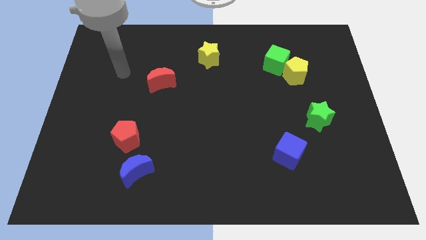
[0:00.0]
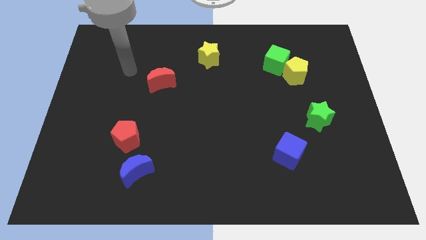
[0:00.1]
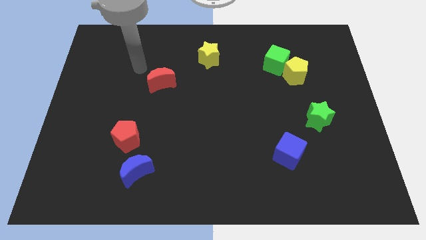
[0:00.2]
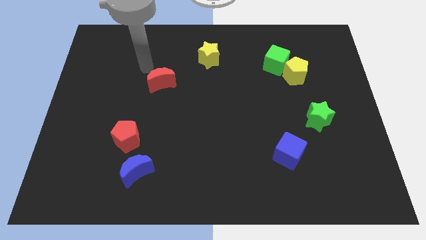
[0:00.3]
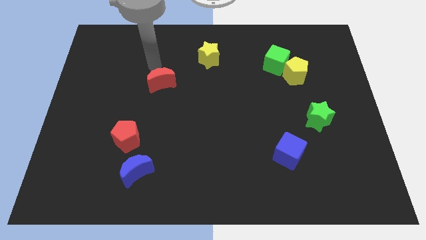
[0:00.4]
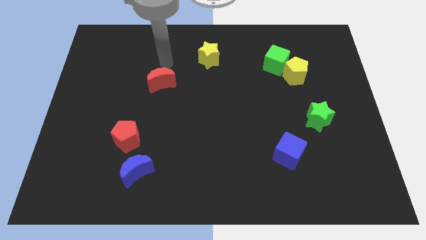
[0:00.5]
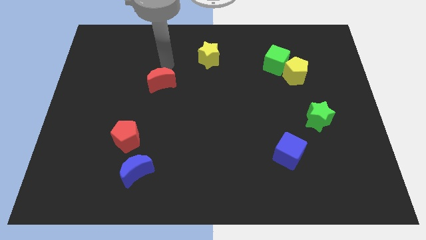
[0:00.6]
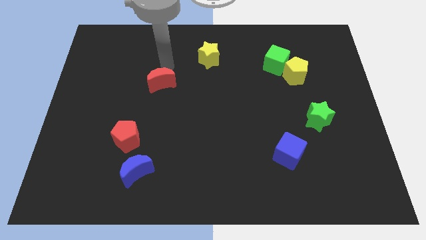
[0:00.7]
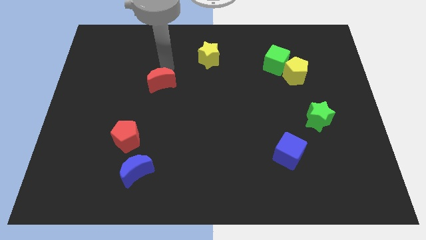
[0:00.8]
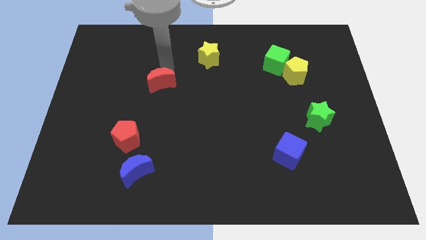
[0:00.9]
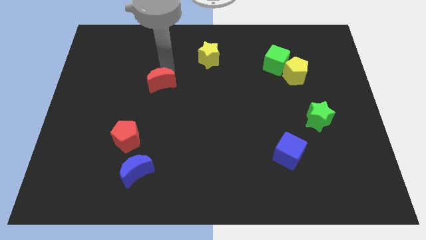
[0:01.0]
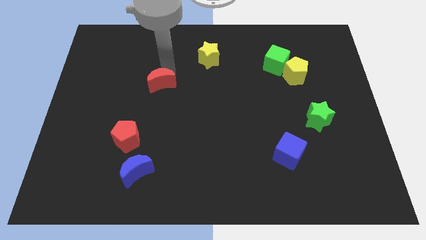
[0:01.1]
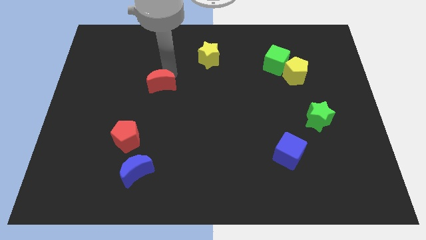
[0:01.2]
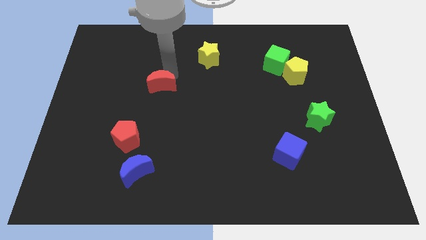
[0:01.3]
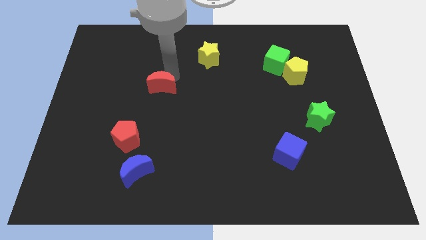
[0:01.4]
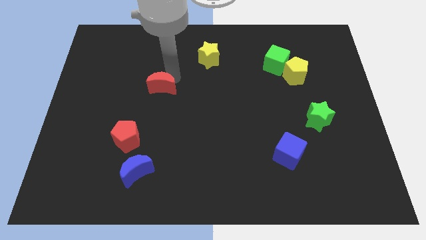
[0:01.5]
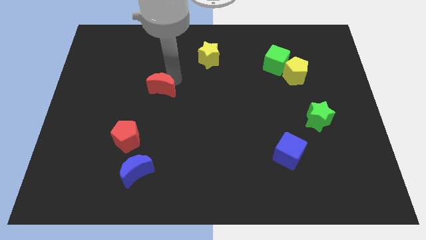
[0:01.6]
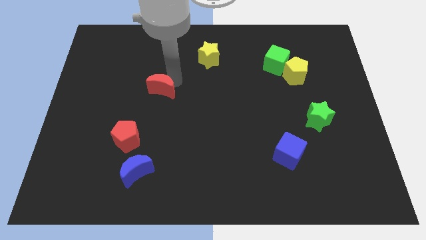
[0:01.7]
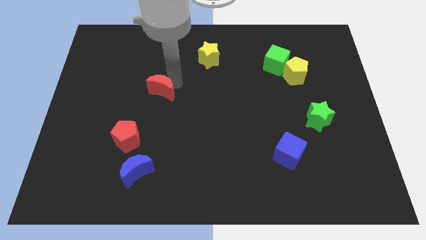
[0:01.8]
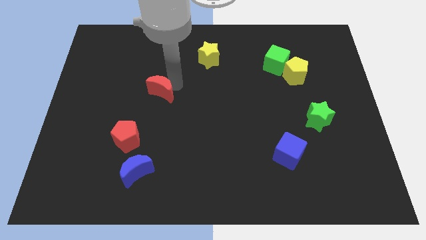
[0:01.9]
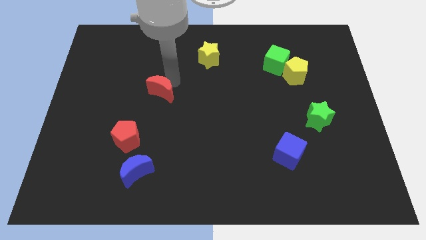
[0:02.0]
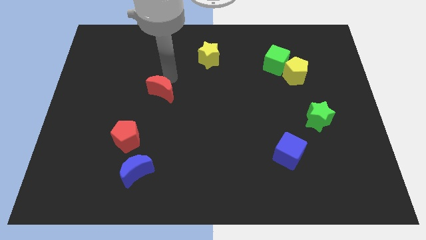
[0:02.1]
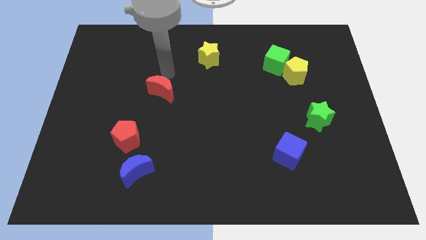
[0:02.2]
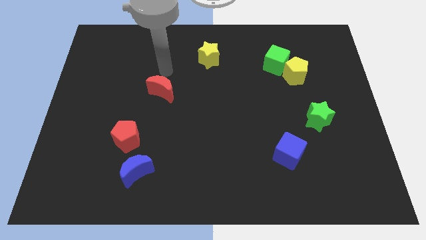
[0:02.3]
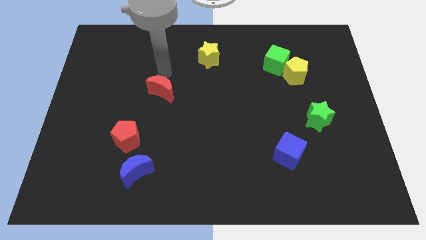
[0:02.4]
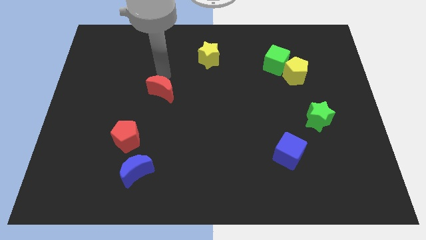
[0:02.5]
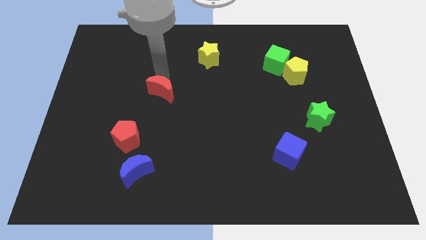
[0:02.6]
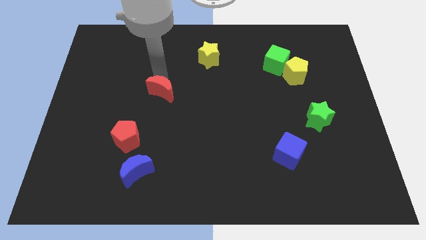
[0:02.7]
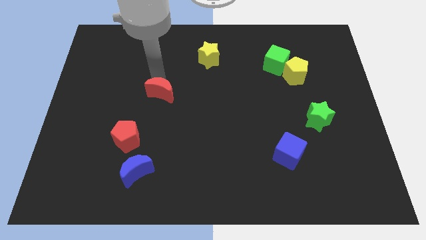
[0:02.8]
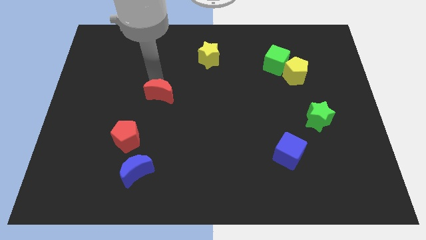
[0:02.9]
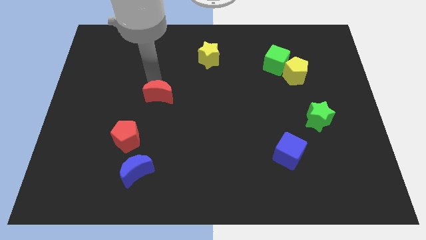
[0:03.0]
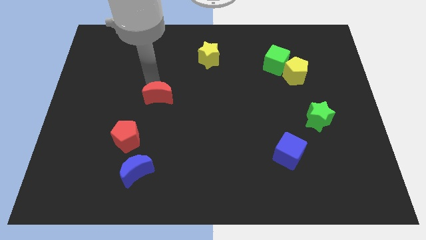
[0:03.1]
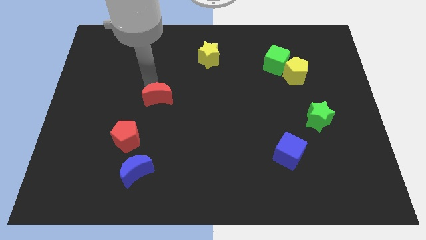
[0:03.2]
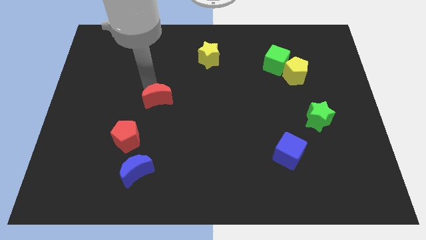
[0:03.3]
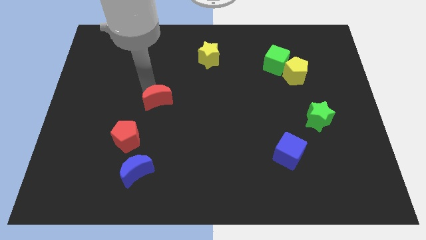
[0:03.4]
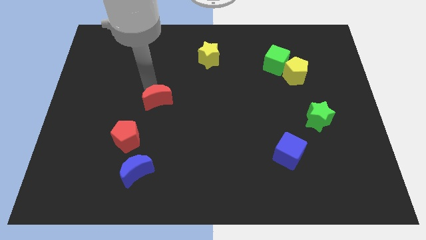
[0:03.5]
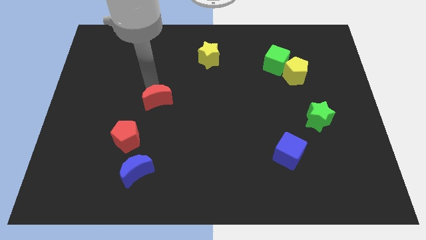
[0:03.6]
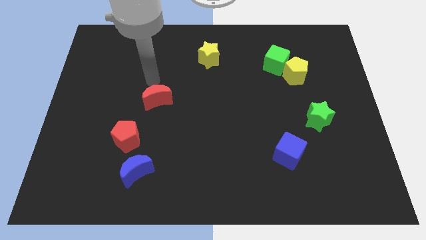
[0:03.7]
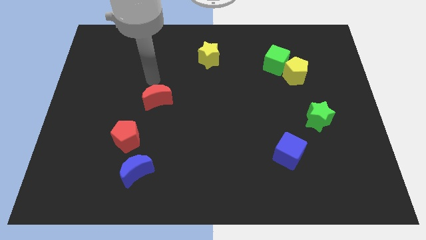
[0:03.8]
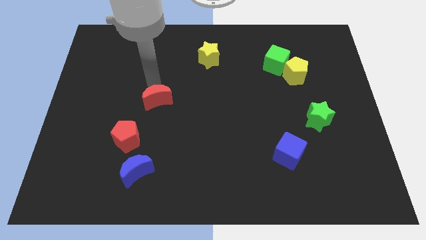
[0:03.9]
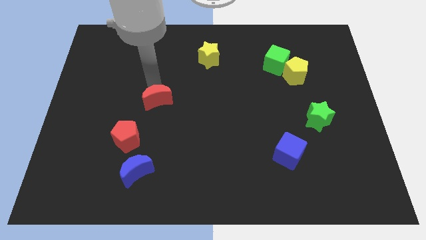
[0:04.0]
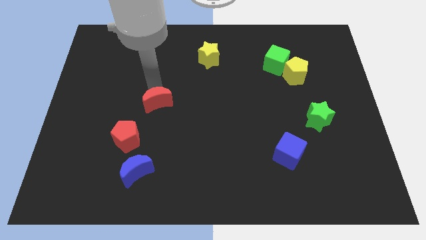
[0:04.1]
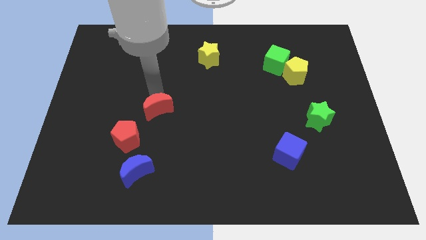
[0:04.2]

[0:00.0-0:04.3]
slide the red moon a little downwards

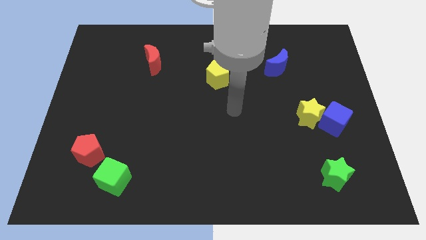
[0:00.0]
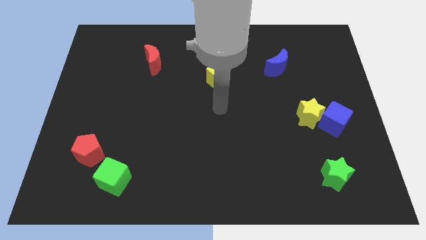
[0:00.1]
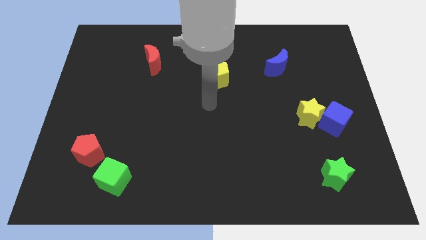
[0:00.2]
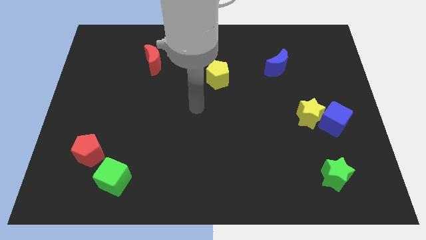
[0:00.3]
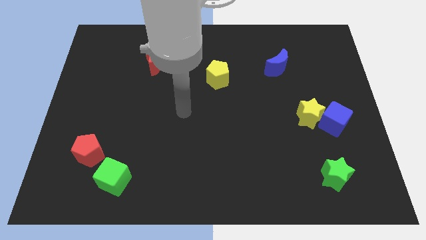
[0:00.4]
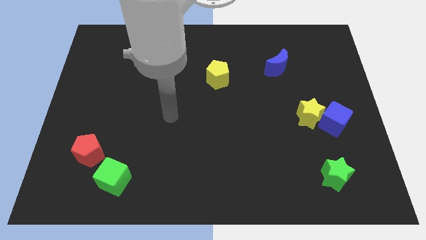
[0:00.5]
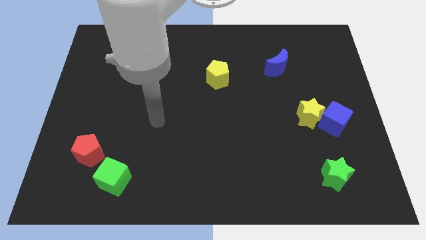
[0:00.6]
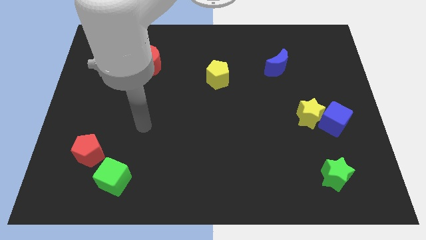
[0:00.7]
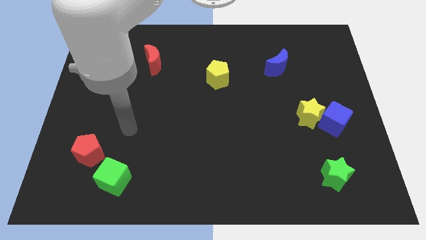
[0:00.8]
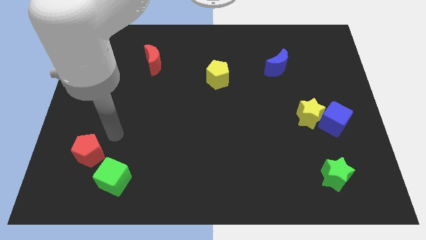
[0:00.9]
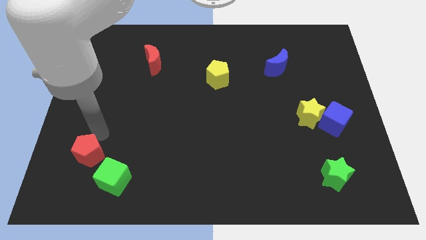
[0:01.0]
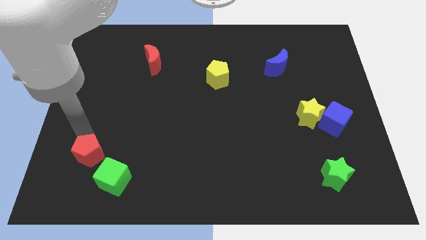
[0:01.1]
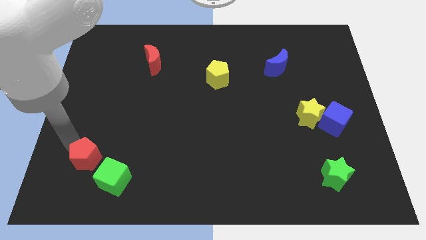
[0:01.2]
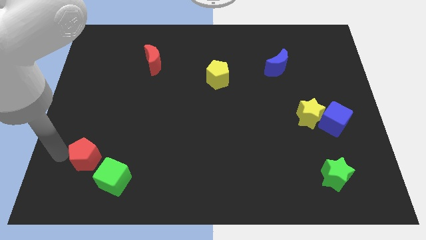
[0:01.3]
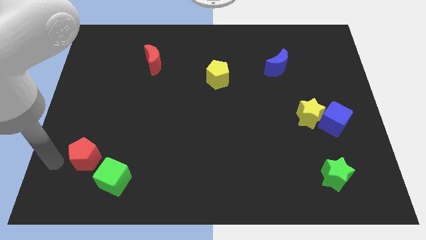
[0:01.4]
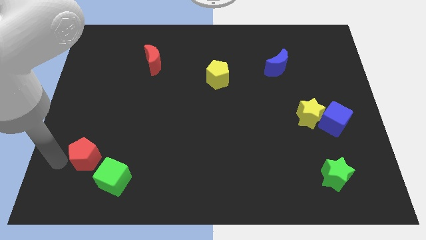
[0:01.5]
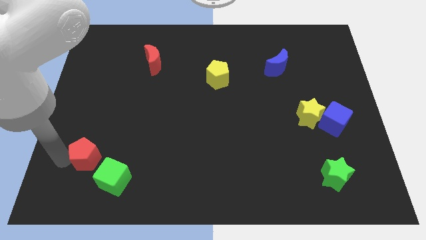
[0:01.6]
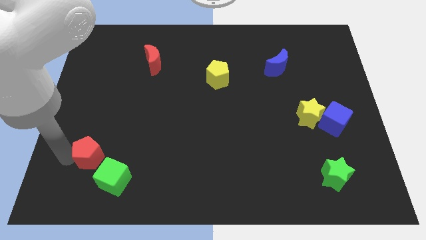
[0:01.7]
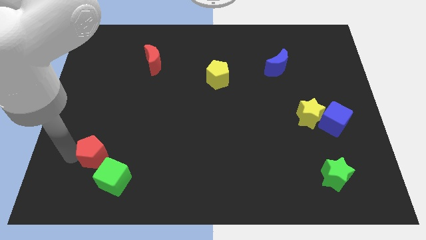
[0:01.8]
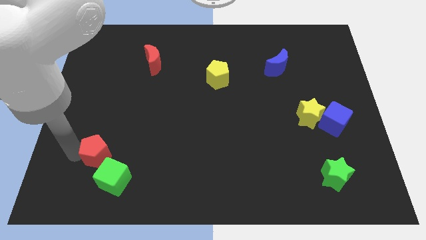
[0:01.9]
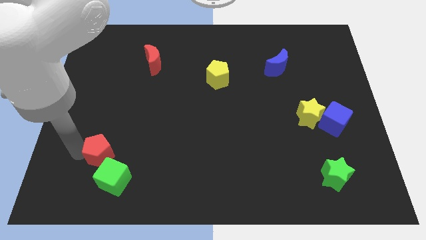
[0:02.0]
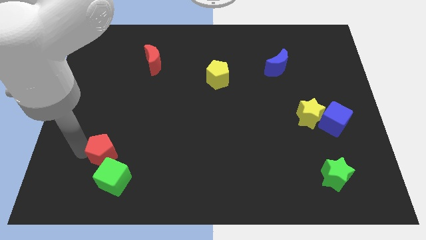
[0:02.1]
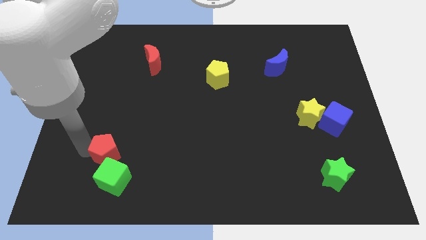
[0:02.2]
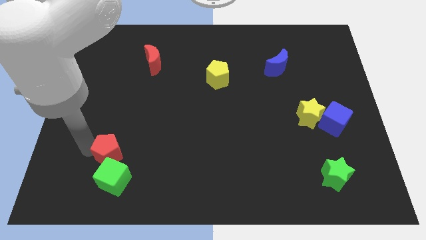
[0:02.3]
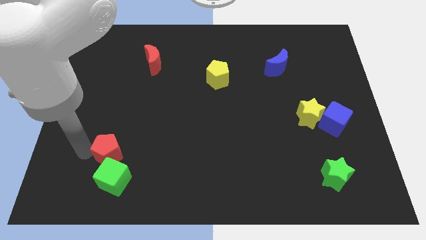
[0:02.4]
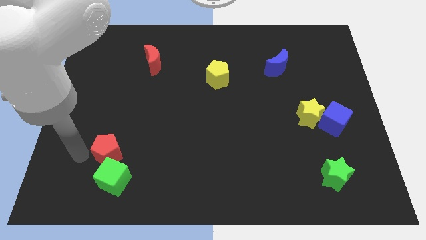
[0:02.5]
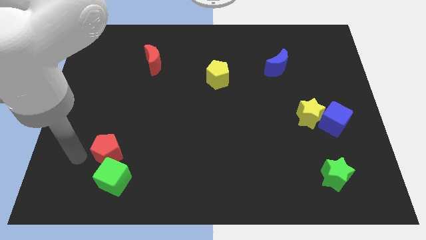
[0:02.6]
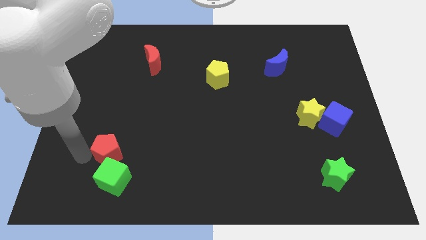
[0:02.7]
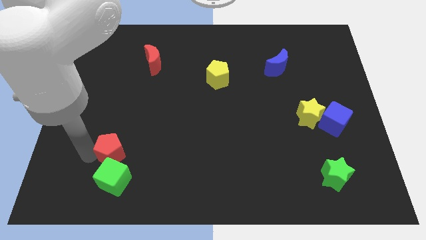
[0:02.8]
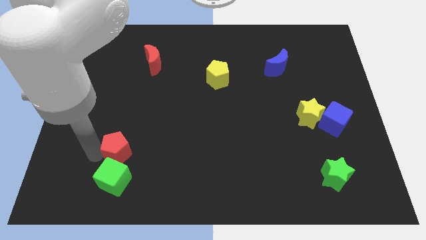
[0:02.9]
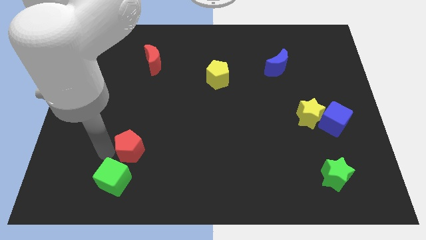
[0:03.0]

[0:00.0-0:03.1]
slightly push the red pentagon right

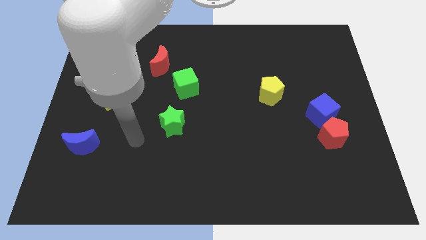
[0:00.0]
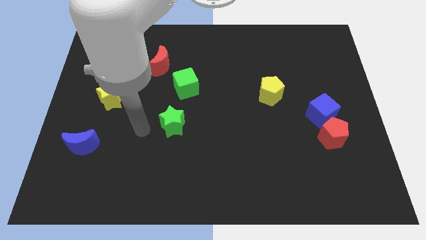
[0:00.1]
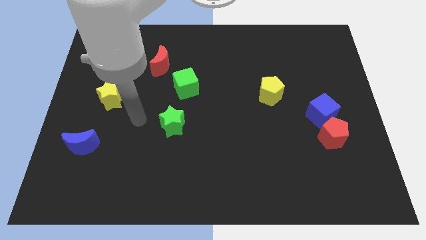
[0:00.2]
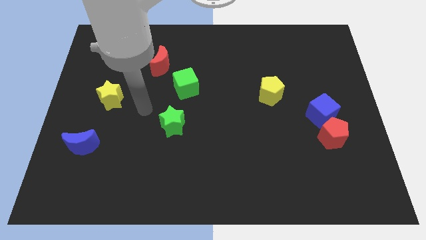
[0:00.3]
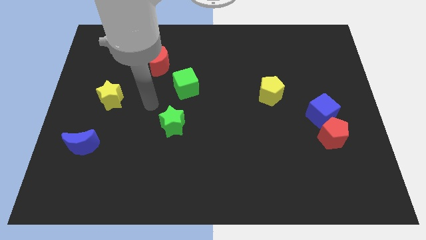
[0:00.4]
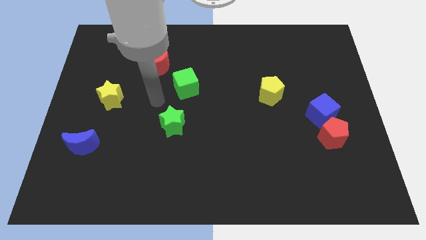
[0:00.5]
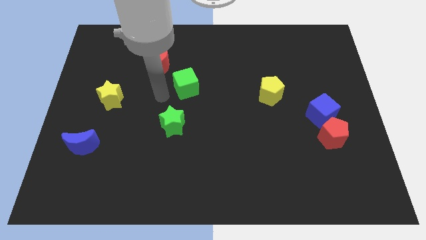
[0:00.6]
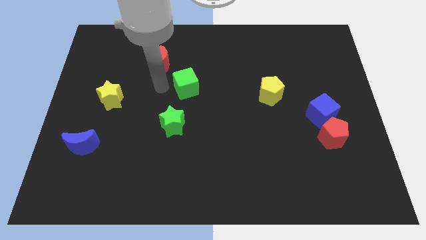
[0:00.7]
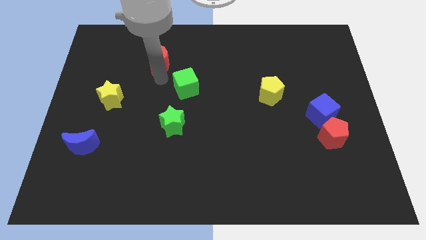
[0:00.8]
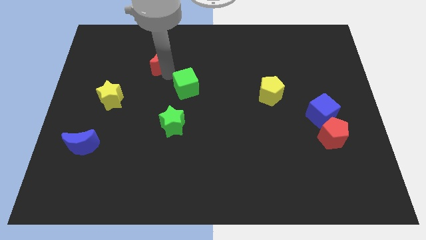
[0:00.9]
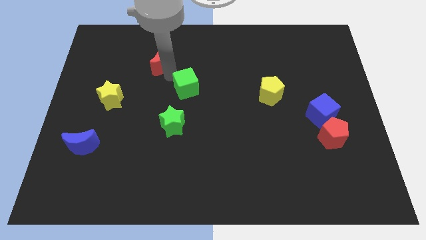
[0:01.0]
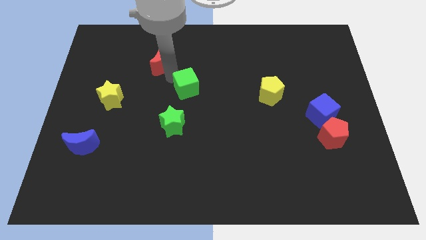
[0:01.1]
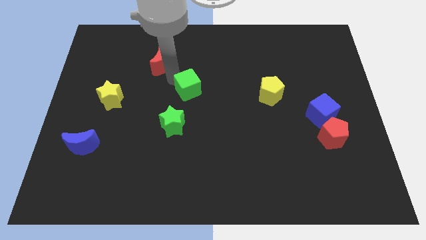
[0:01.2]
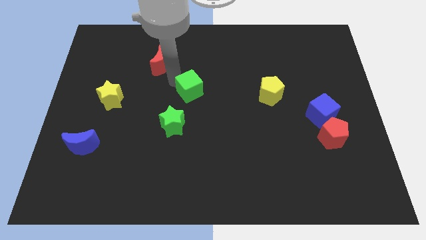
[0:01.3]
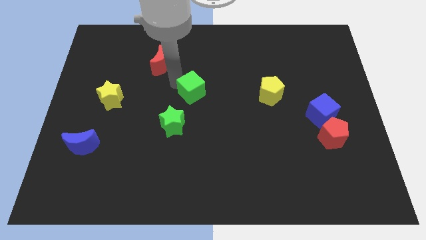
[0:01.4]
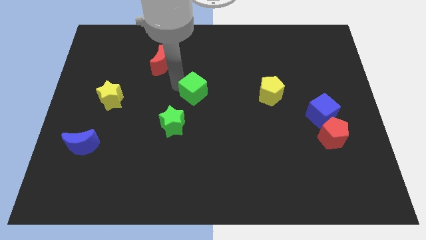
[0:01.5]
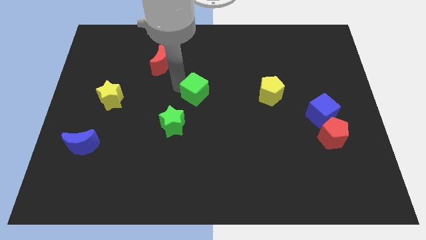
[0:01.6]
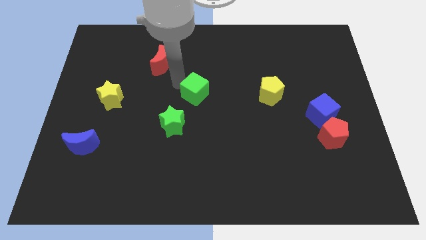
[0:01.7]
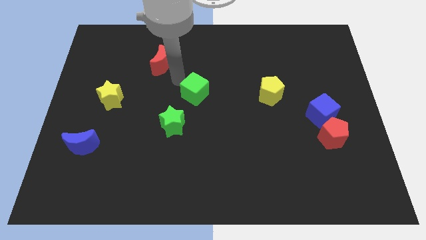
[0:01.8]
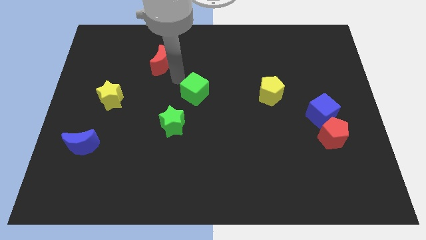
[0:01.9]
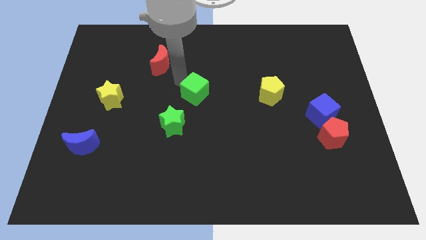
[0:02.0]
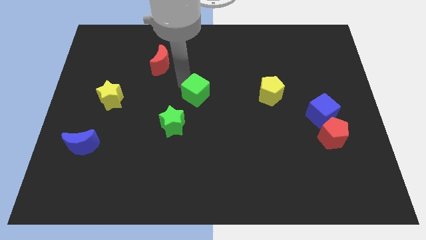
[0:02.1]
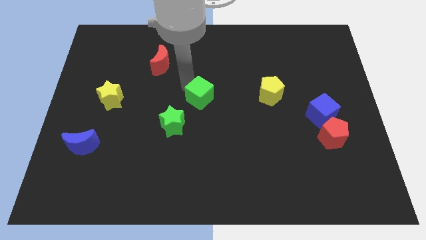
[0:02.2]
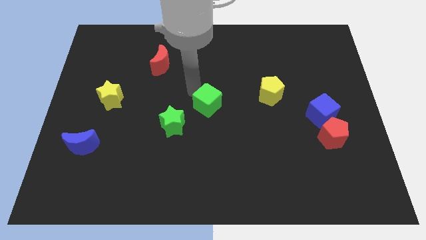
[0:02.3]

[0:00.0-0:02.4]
push the green cube down and to the right slightly
